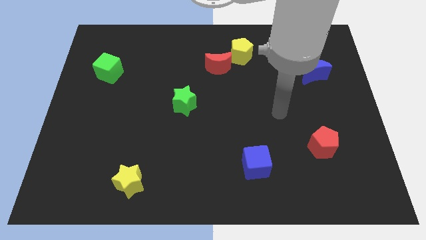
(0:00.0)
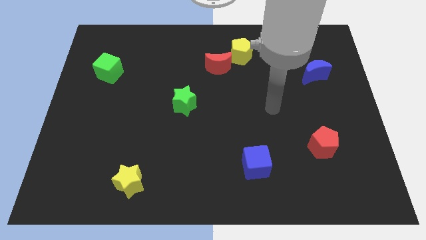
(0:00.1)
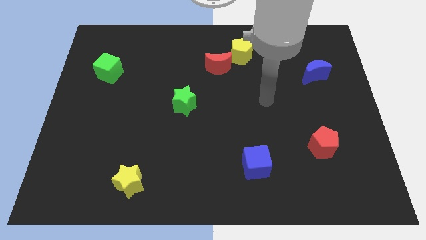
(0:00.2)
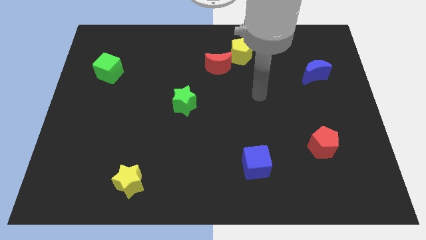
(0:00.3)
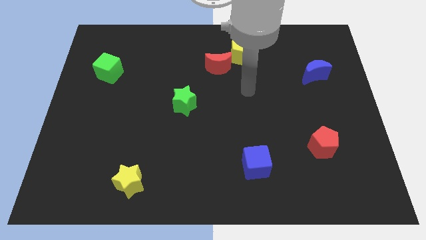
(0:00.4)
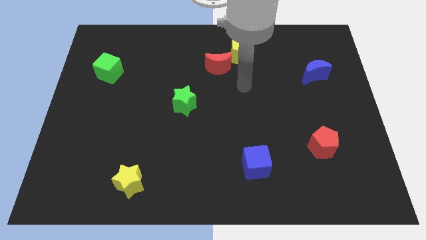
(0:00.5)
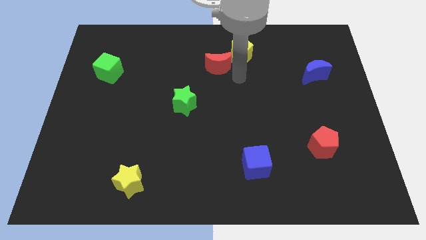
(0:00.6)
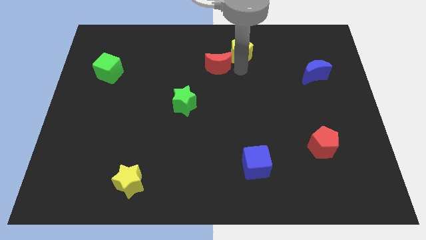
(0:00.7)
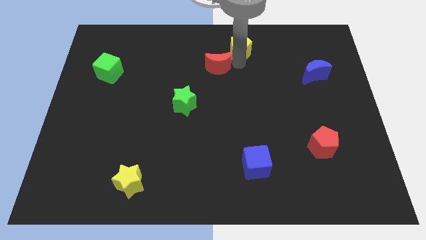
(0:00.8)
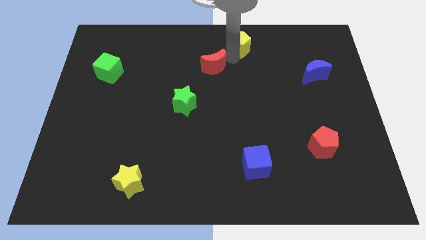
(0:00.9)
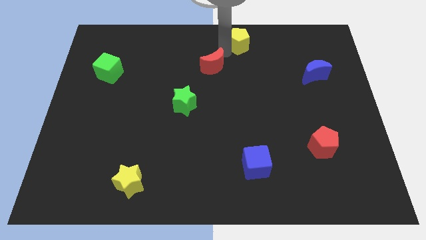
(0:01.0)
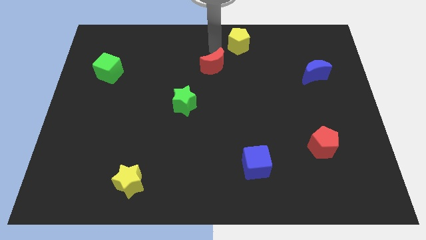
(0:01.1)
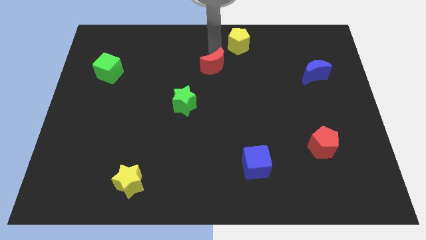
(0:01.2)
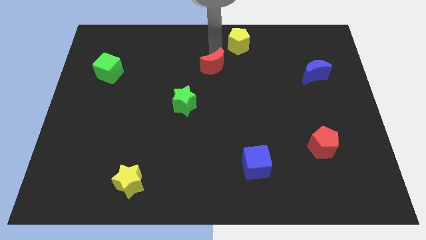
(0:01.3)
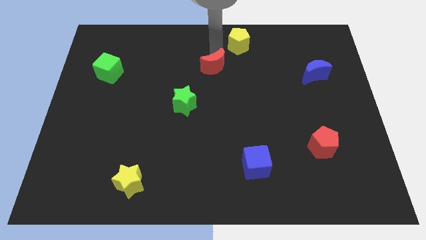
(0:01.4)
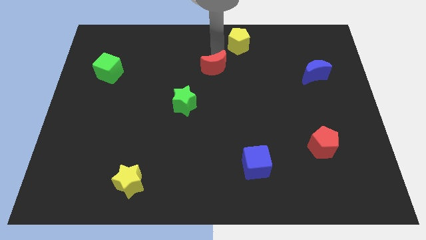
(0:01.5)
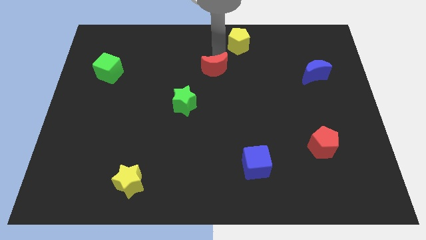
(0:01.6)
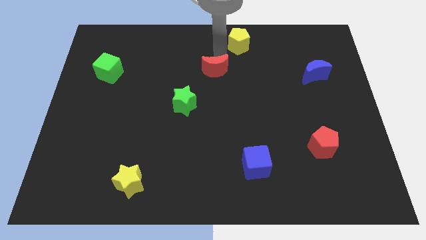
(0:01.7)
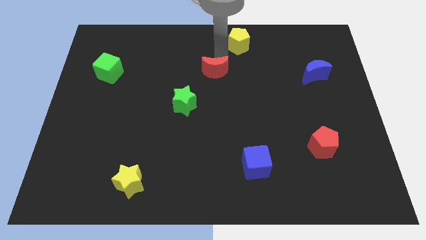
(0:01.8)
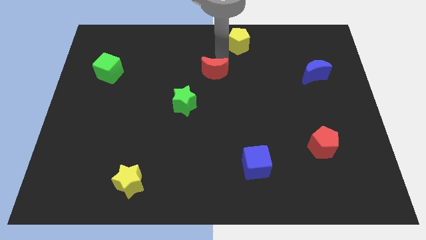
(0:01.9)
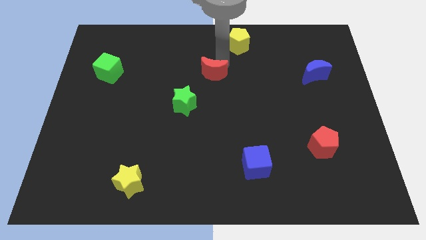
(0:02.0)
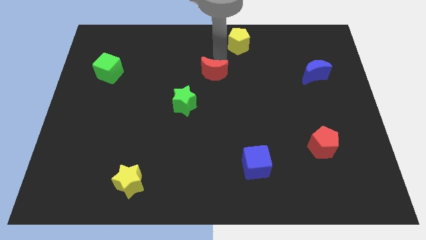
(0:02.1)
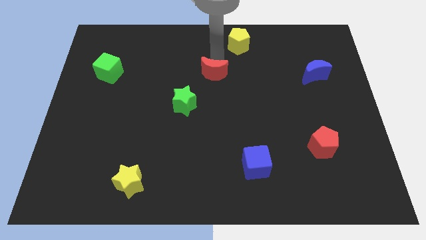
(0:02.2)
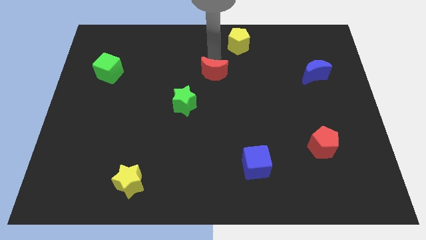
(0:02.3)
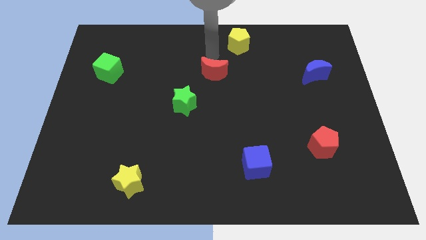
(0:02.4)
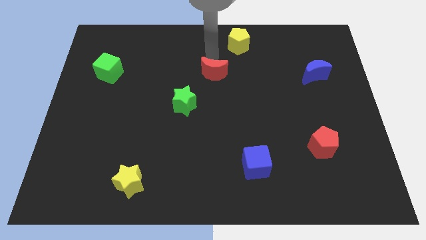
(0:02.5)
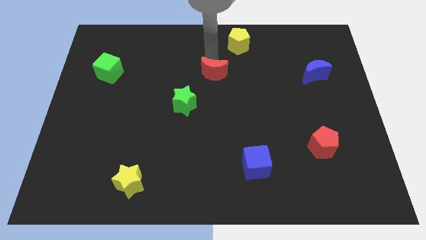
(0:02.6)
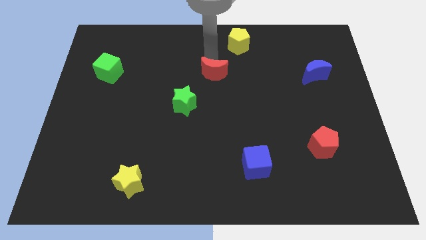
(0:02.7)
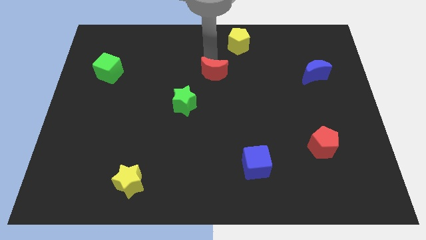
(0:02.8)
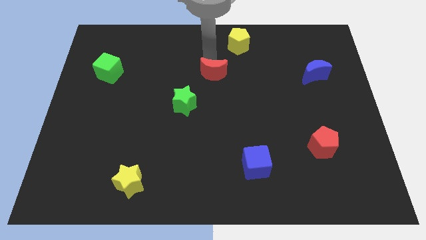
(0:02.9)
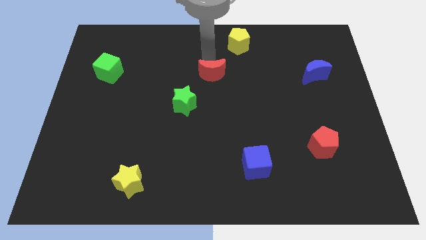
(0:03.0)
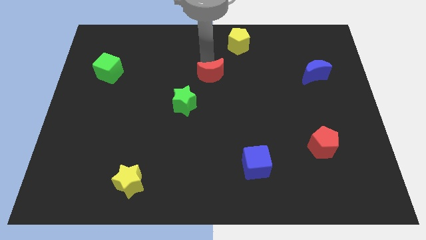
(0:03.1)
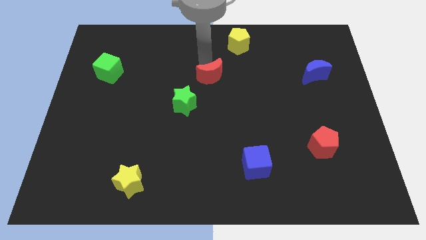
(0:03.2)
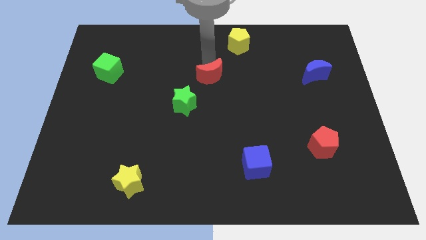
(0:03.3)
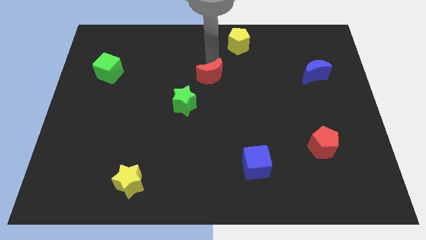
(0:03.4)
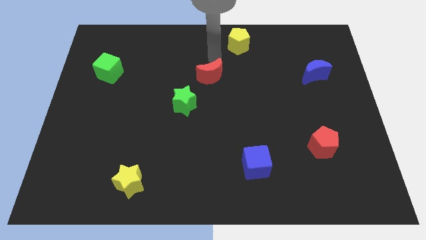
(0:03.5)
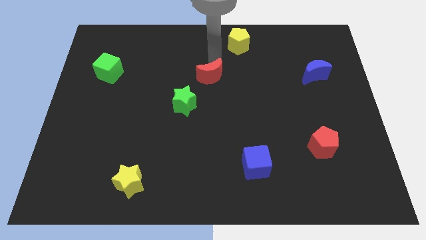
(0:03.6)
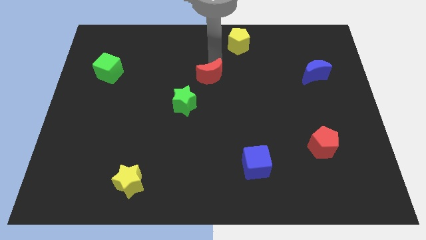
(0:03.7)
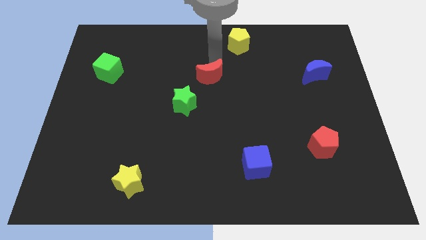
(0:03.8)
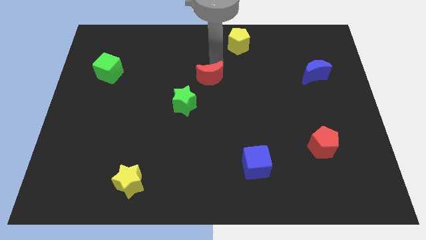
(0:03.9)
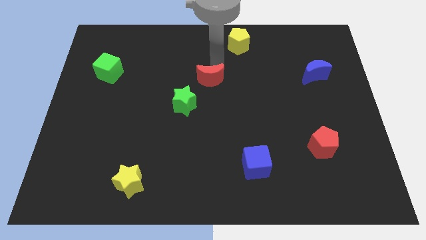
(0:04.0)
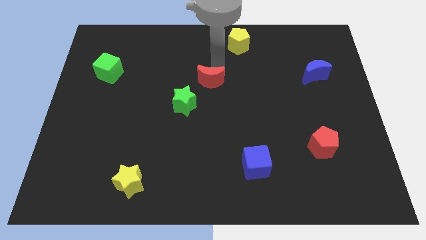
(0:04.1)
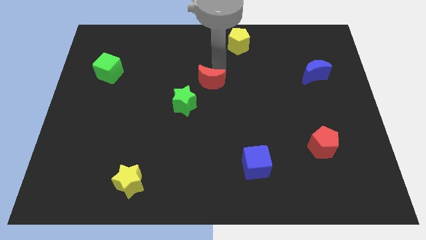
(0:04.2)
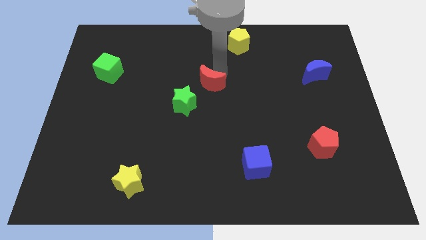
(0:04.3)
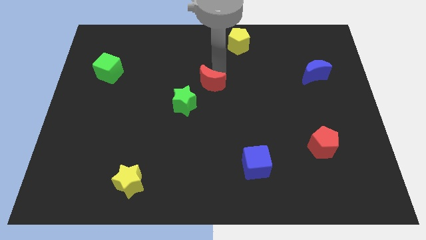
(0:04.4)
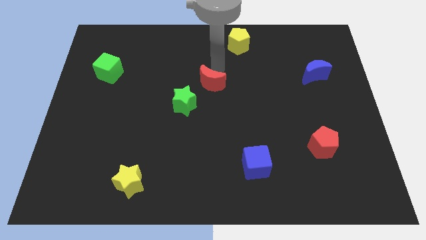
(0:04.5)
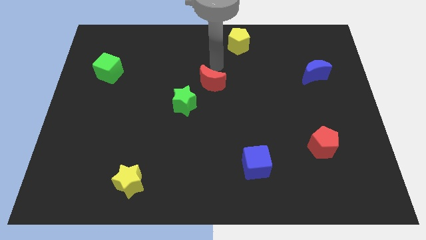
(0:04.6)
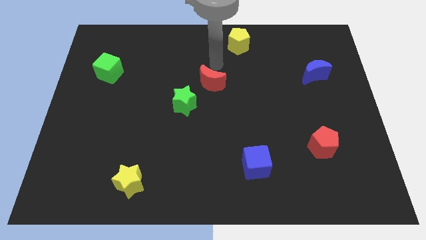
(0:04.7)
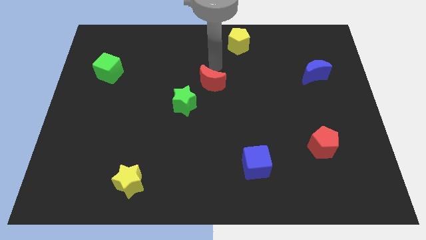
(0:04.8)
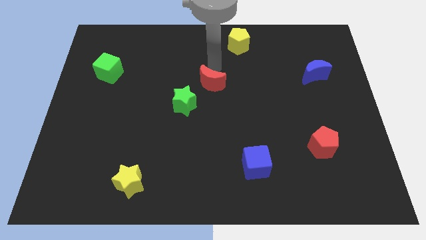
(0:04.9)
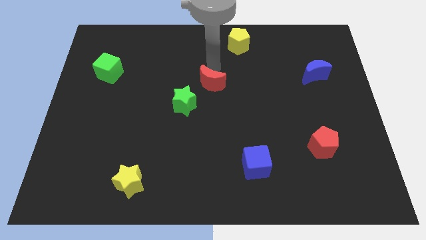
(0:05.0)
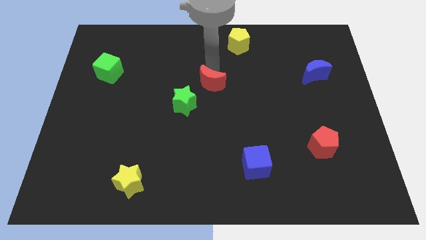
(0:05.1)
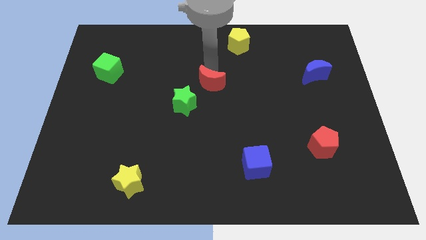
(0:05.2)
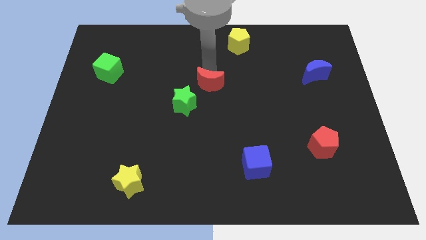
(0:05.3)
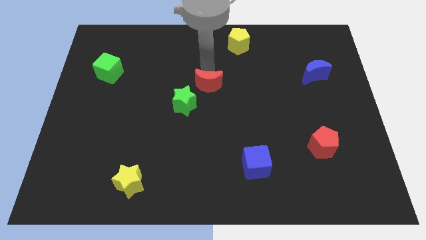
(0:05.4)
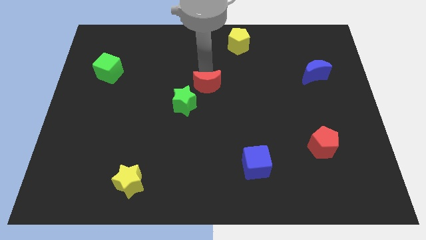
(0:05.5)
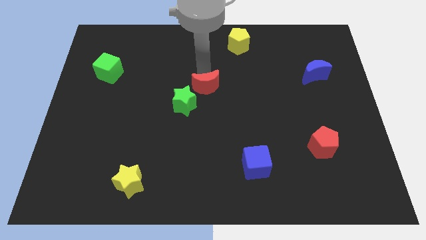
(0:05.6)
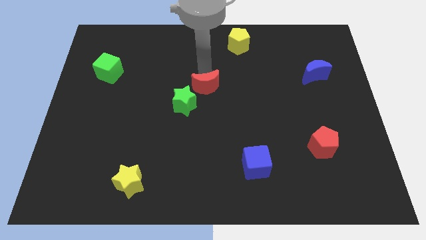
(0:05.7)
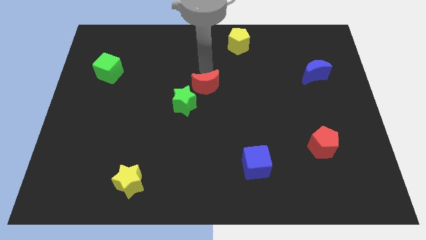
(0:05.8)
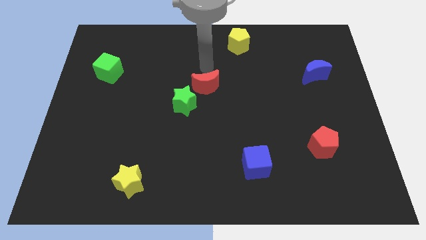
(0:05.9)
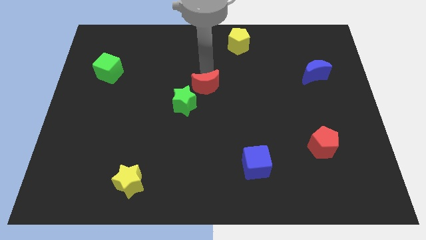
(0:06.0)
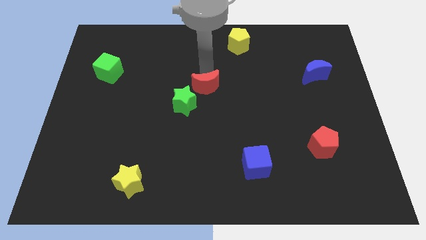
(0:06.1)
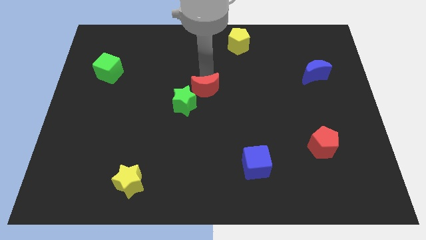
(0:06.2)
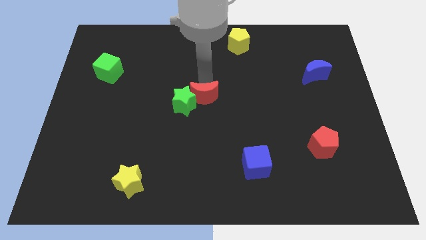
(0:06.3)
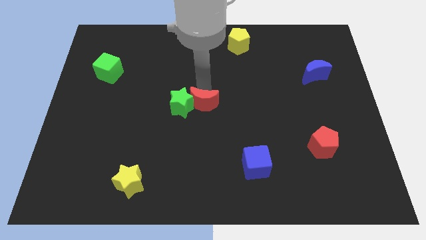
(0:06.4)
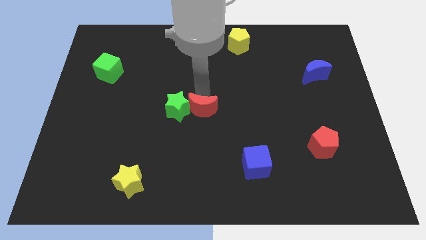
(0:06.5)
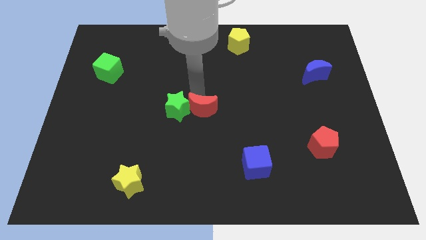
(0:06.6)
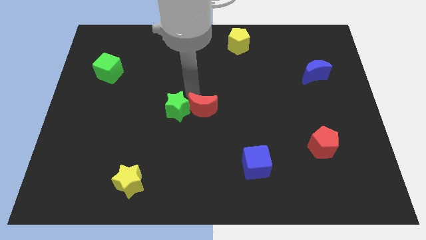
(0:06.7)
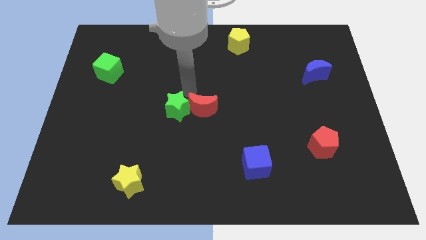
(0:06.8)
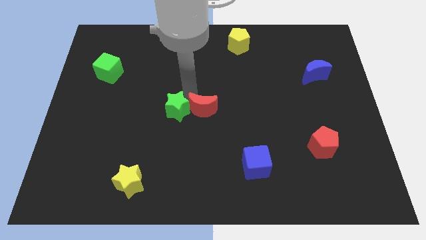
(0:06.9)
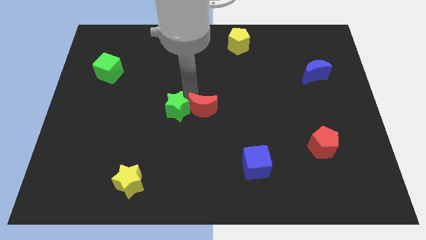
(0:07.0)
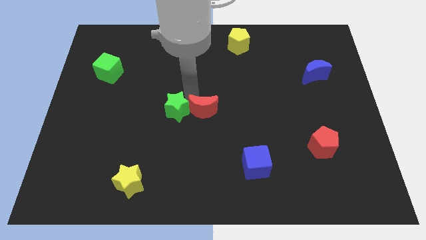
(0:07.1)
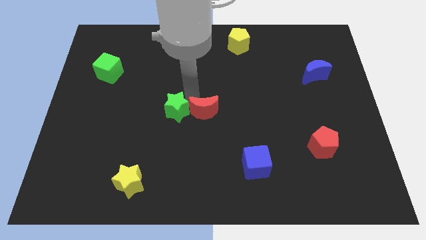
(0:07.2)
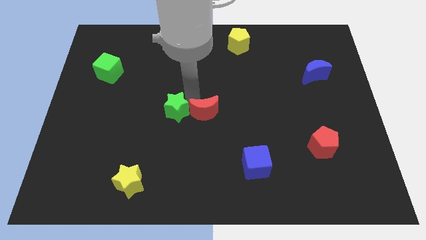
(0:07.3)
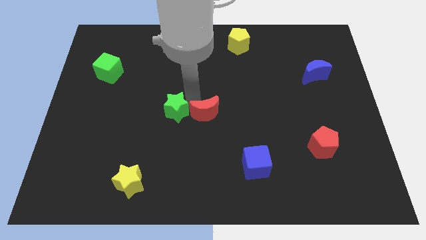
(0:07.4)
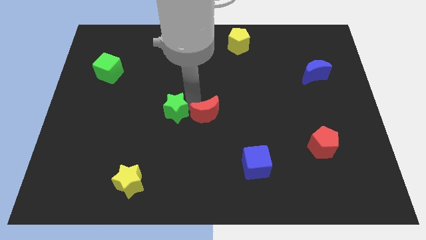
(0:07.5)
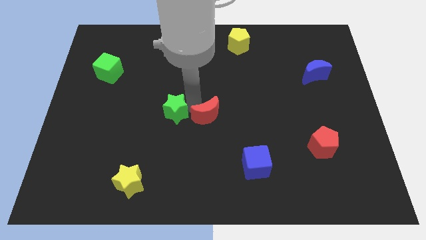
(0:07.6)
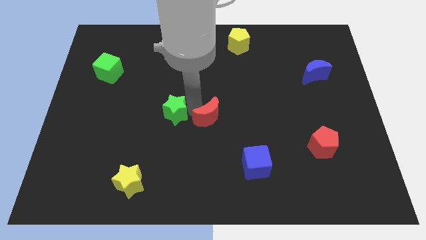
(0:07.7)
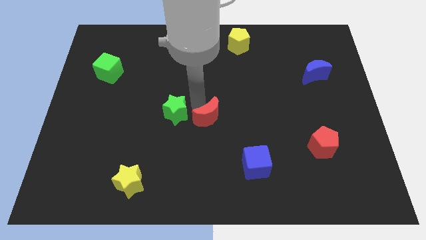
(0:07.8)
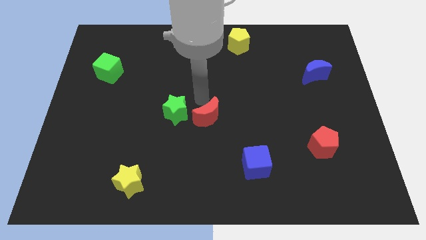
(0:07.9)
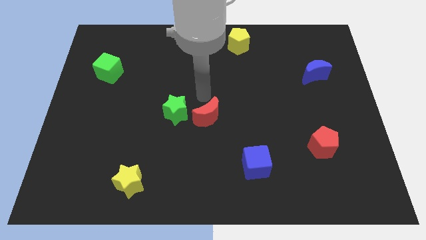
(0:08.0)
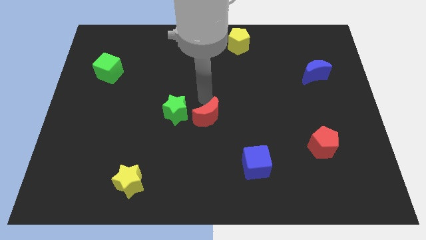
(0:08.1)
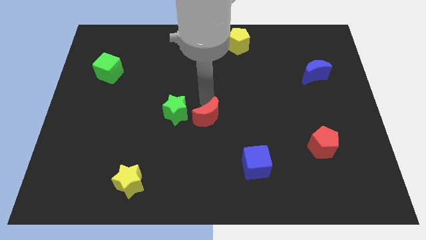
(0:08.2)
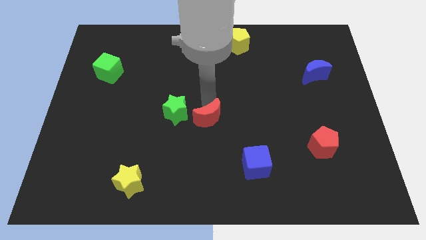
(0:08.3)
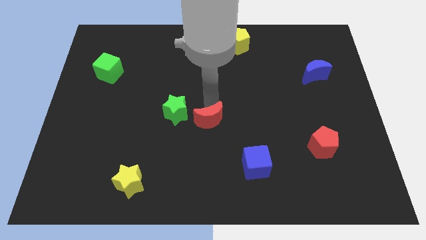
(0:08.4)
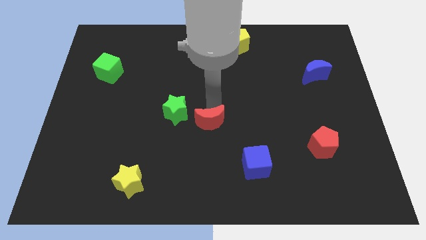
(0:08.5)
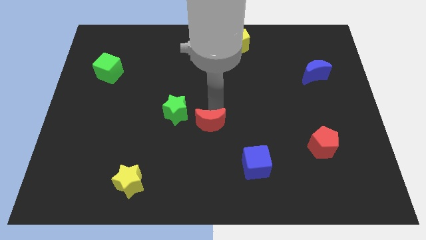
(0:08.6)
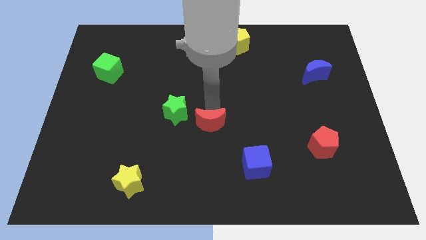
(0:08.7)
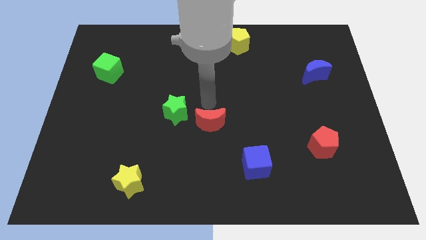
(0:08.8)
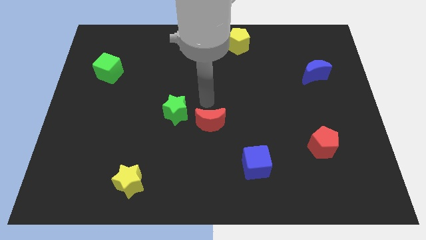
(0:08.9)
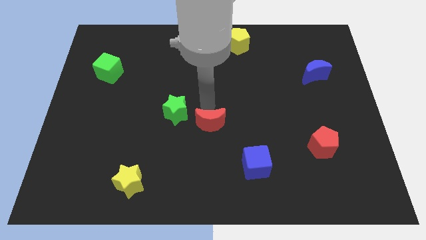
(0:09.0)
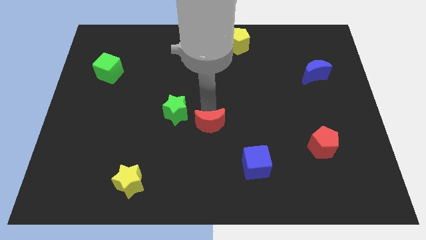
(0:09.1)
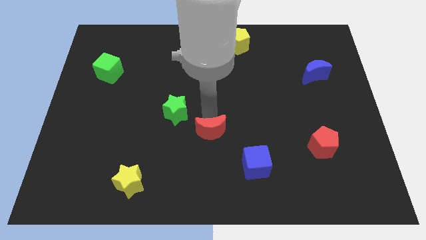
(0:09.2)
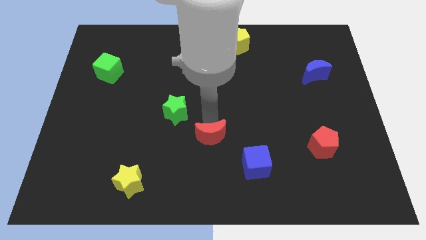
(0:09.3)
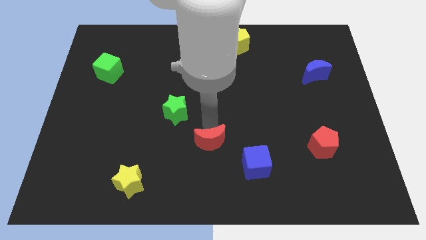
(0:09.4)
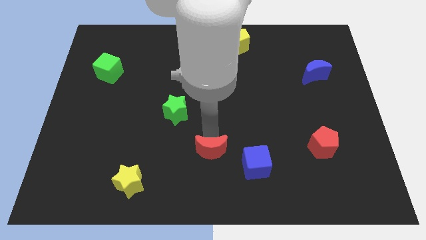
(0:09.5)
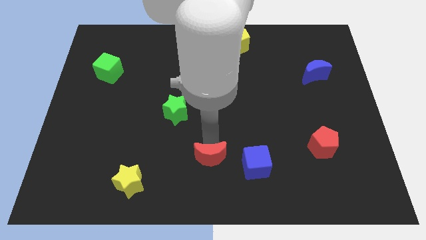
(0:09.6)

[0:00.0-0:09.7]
slide the red moon to the bottom
